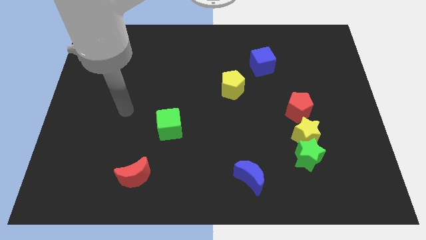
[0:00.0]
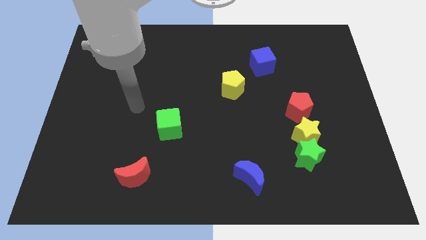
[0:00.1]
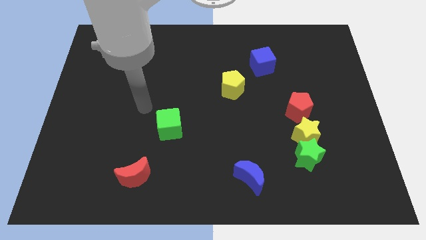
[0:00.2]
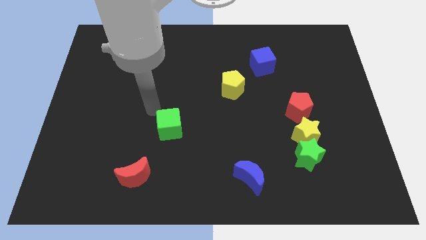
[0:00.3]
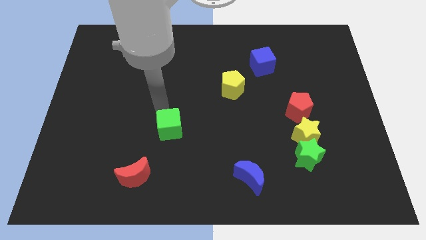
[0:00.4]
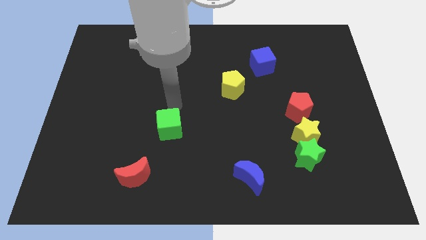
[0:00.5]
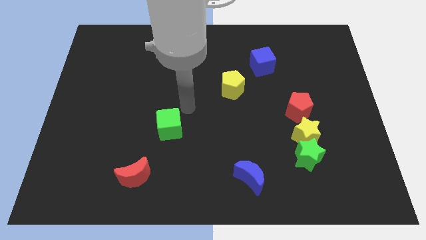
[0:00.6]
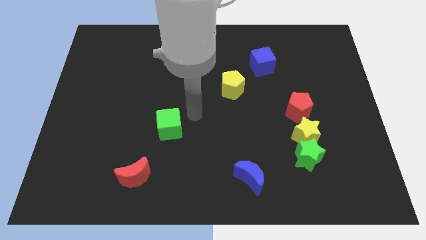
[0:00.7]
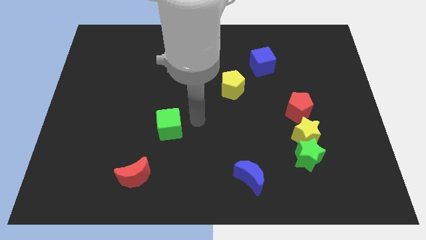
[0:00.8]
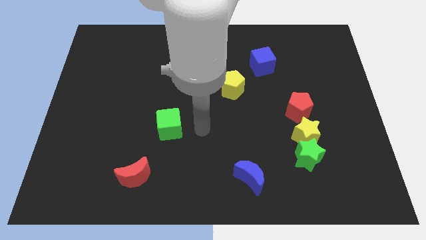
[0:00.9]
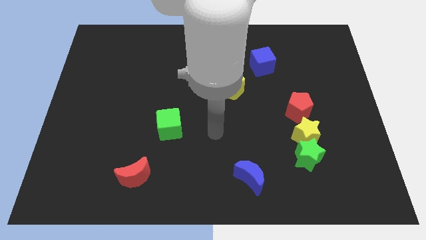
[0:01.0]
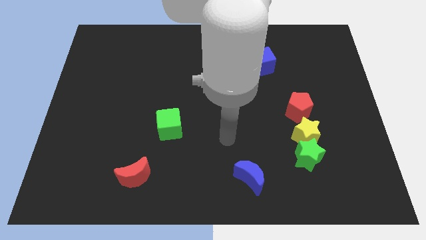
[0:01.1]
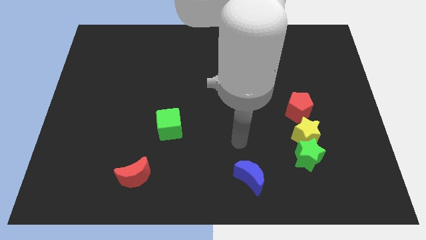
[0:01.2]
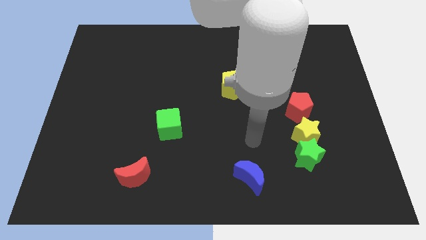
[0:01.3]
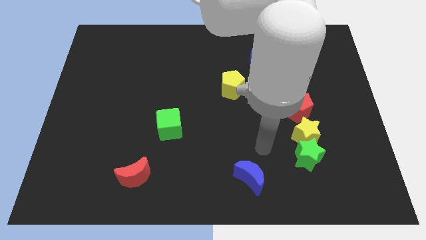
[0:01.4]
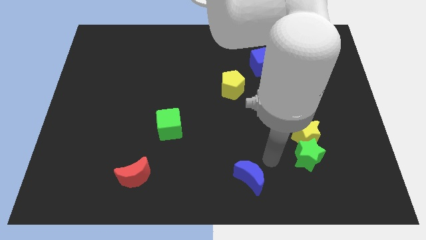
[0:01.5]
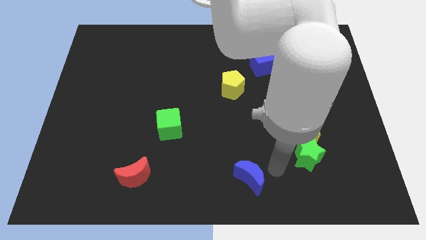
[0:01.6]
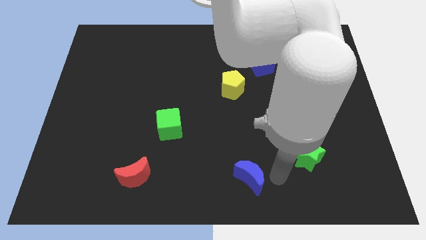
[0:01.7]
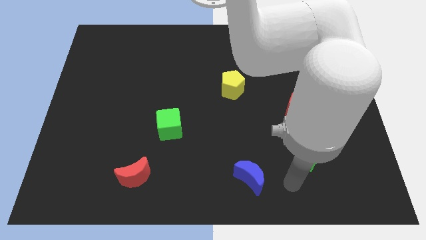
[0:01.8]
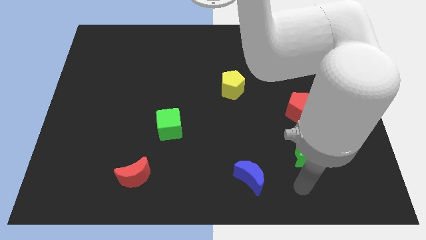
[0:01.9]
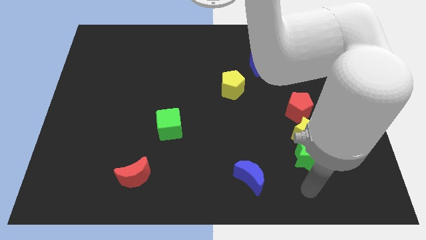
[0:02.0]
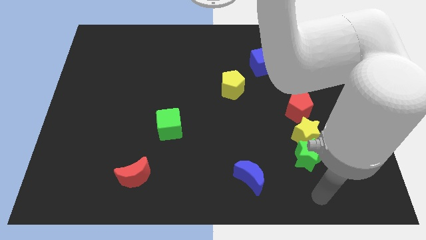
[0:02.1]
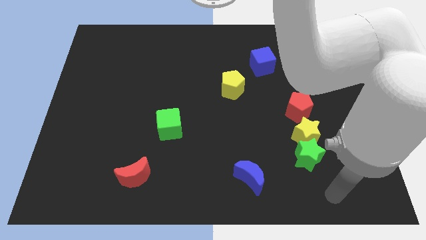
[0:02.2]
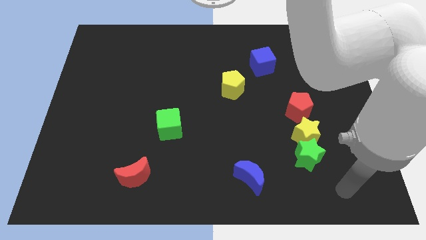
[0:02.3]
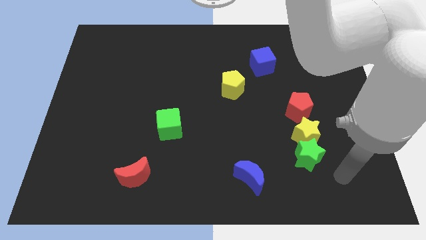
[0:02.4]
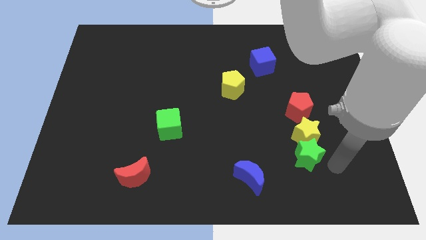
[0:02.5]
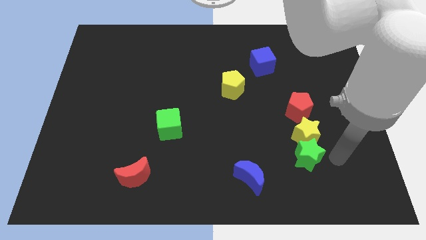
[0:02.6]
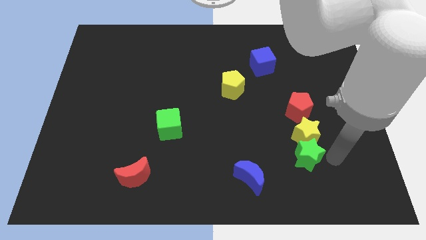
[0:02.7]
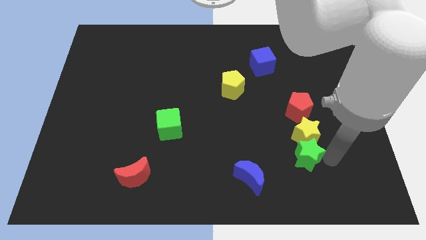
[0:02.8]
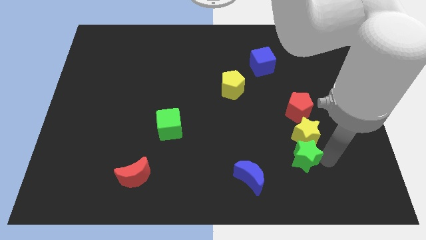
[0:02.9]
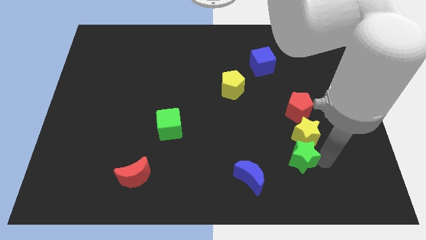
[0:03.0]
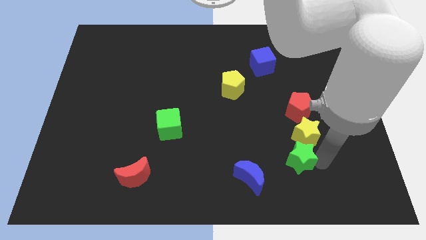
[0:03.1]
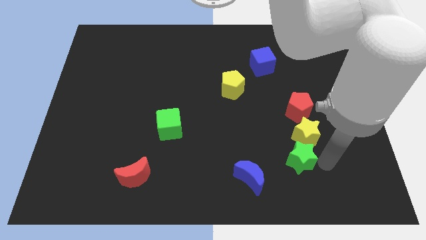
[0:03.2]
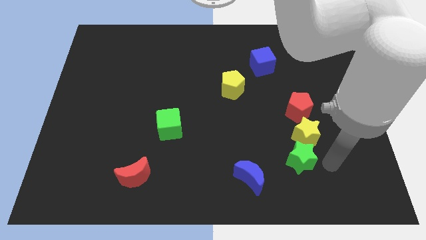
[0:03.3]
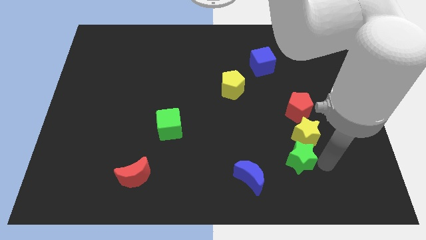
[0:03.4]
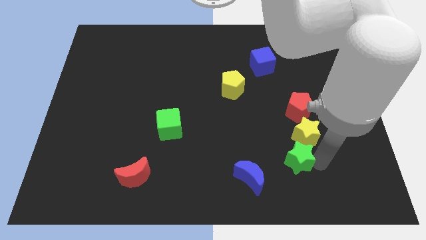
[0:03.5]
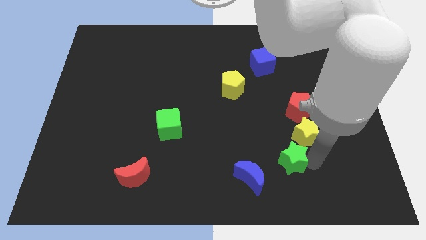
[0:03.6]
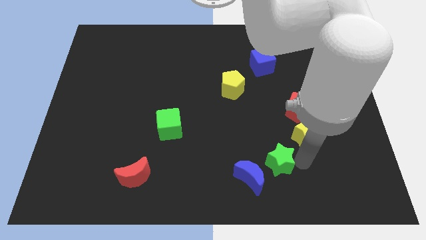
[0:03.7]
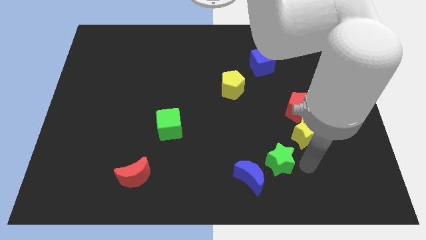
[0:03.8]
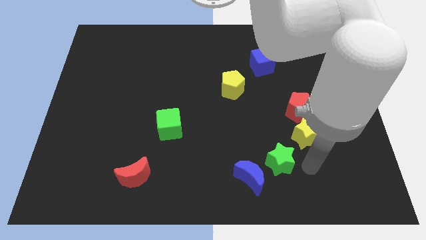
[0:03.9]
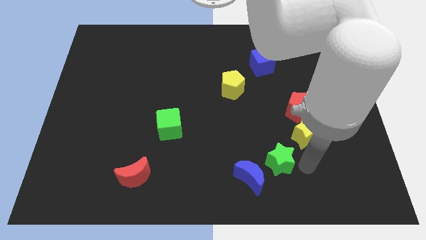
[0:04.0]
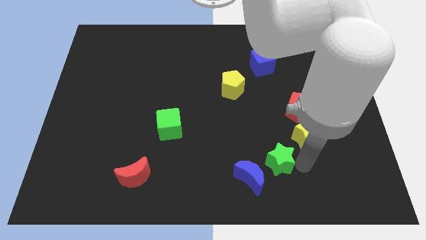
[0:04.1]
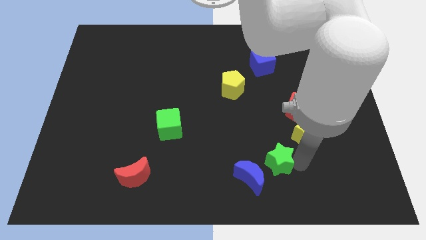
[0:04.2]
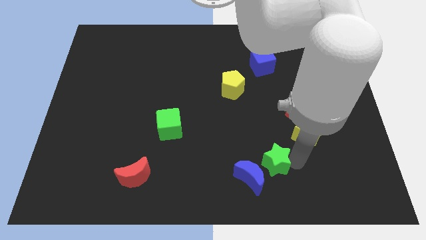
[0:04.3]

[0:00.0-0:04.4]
push the green star somewhat to the left

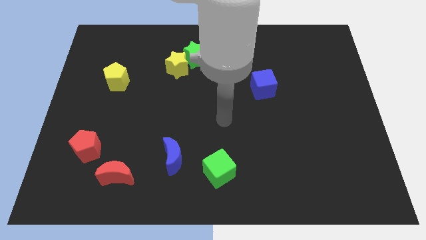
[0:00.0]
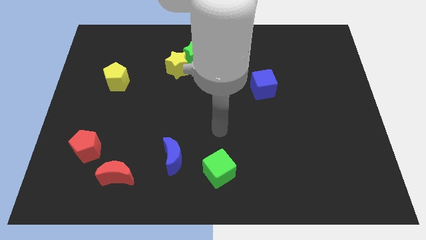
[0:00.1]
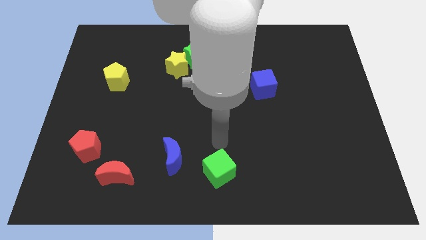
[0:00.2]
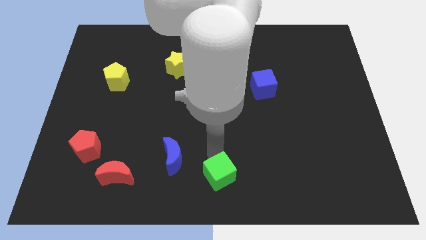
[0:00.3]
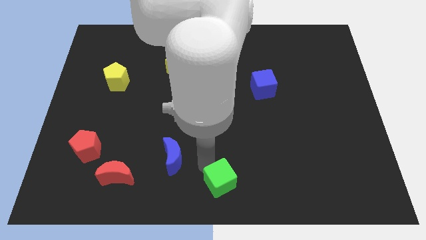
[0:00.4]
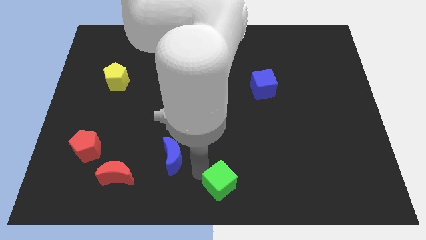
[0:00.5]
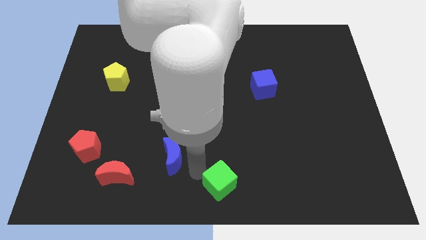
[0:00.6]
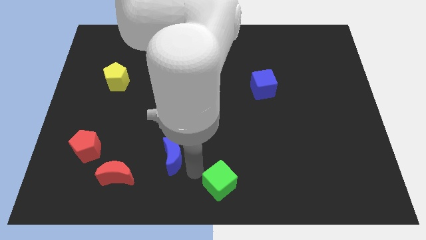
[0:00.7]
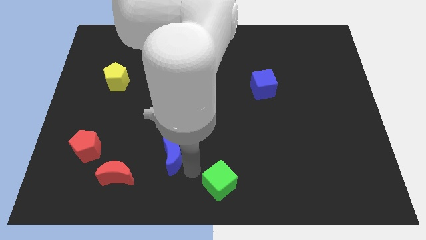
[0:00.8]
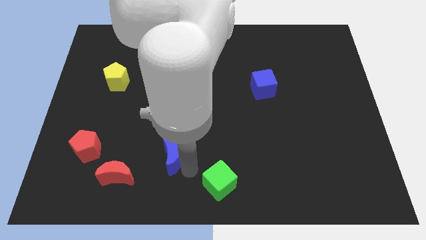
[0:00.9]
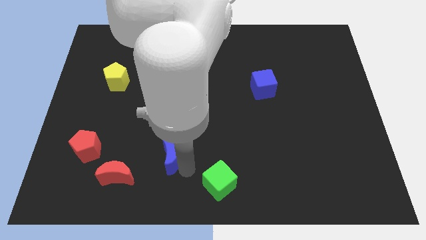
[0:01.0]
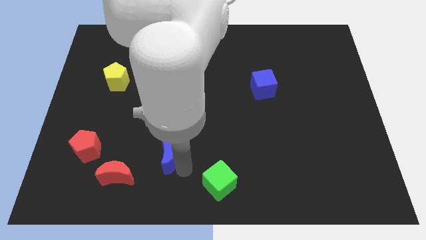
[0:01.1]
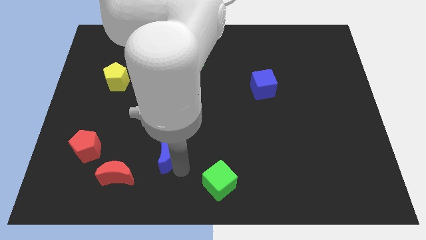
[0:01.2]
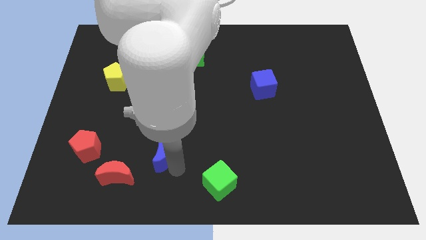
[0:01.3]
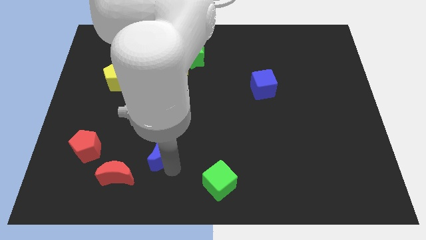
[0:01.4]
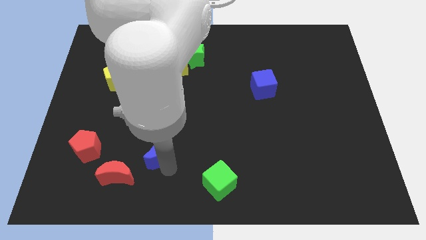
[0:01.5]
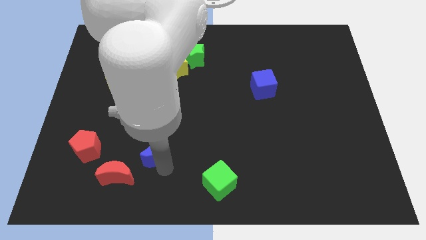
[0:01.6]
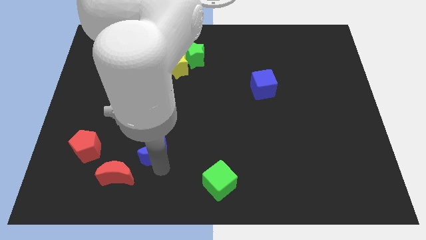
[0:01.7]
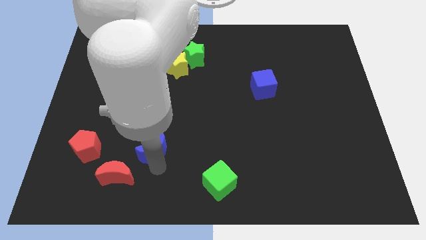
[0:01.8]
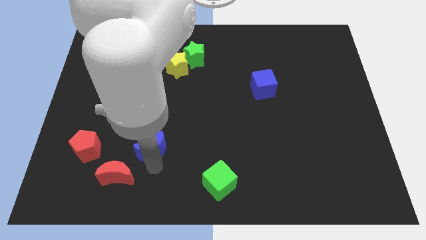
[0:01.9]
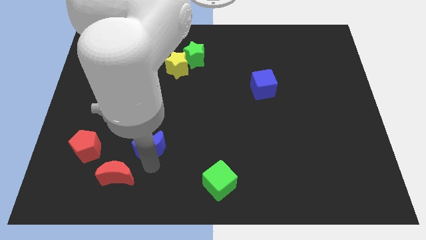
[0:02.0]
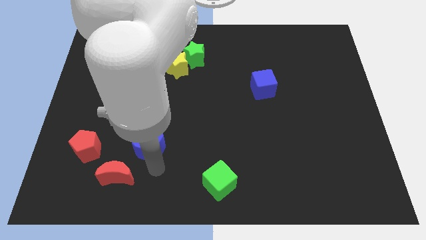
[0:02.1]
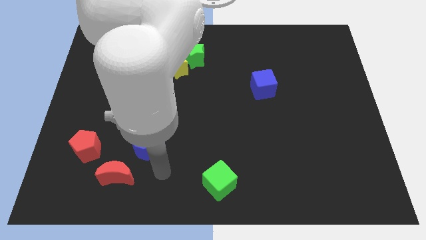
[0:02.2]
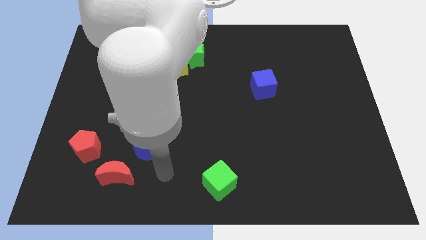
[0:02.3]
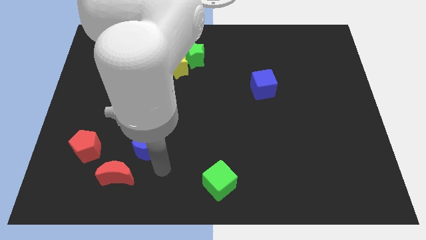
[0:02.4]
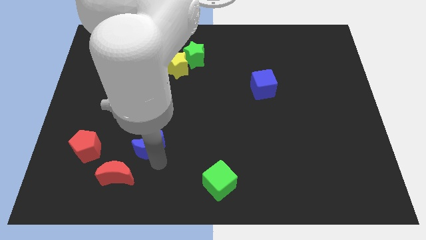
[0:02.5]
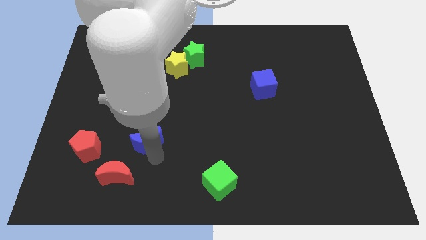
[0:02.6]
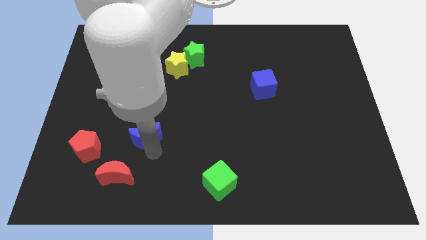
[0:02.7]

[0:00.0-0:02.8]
slightly slide the blue moon upwards and then left

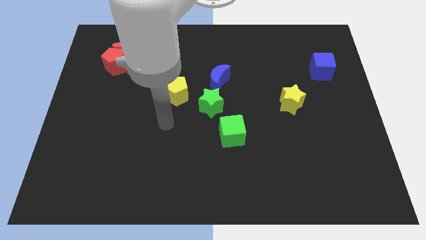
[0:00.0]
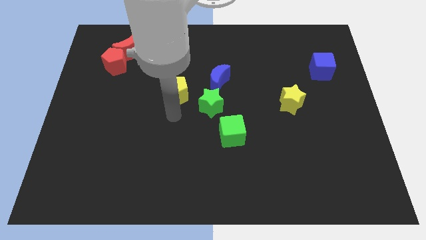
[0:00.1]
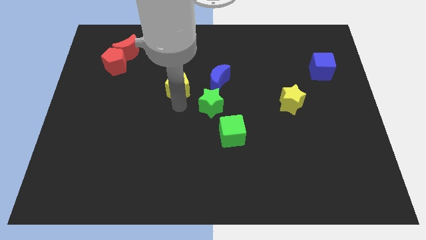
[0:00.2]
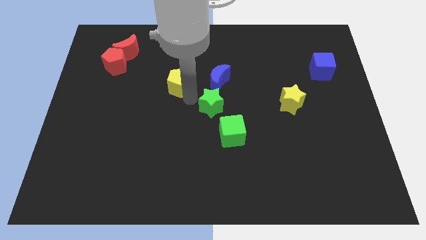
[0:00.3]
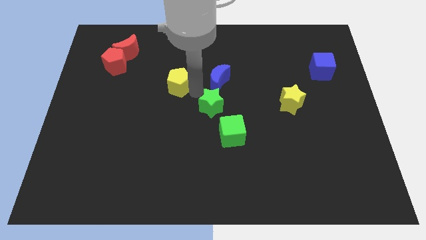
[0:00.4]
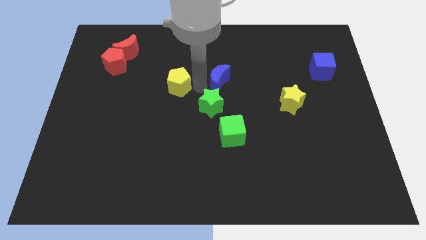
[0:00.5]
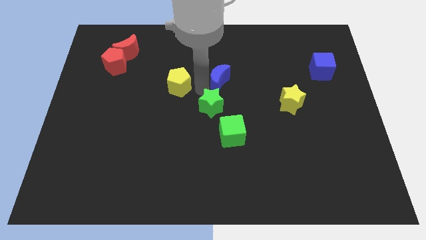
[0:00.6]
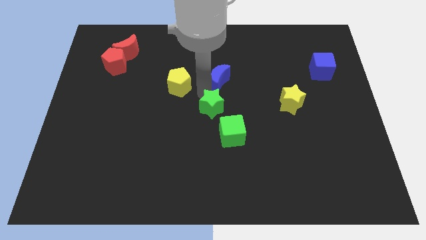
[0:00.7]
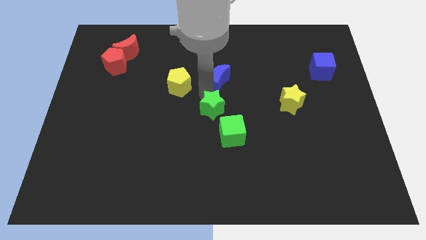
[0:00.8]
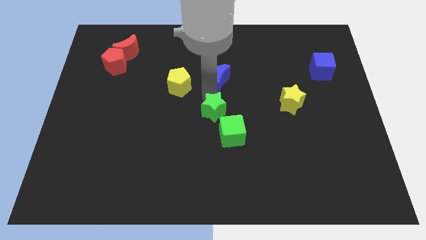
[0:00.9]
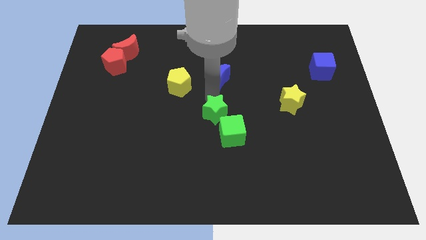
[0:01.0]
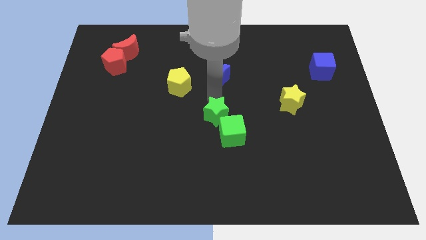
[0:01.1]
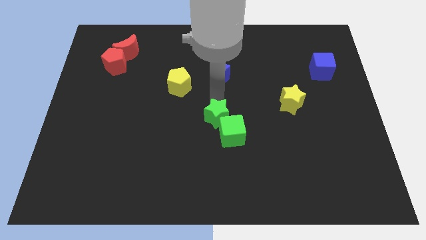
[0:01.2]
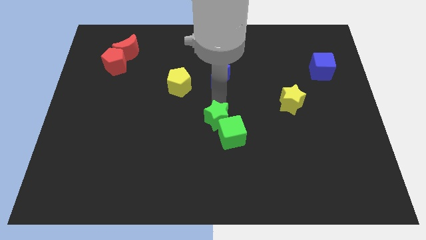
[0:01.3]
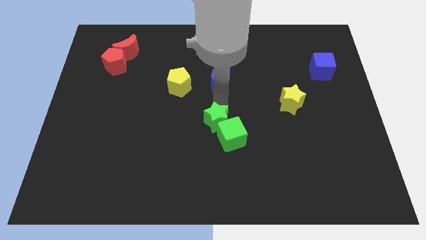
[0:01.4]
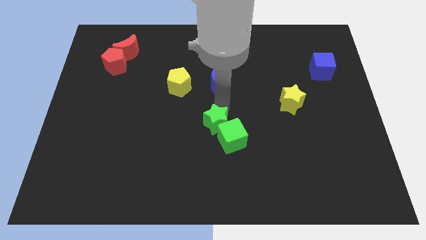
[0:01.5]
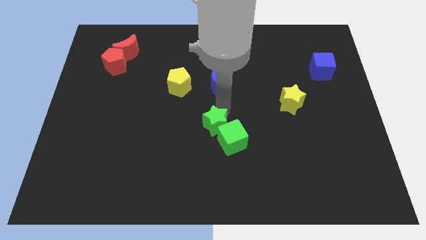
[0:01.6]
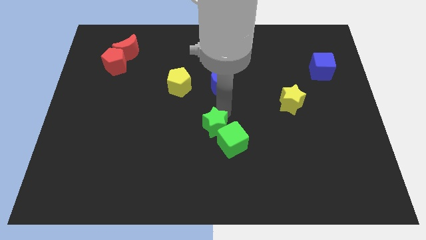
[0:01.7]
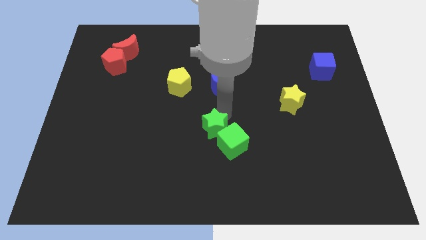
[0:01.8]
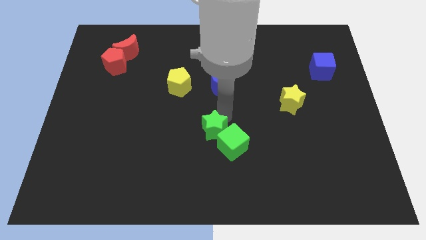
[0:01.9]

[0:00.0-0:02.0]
push the green star down somewhat
